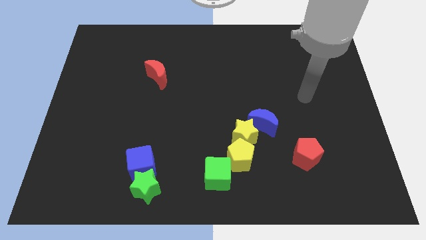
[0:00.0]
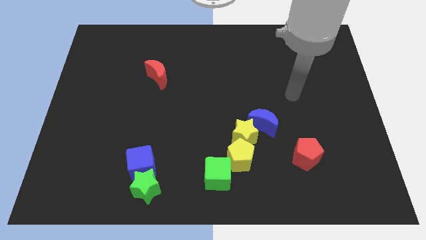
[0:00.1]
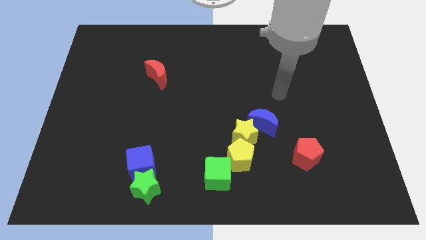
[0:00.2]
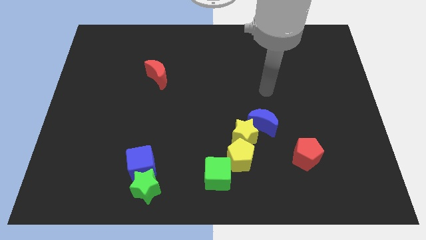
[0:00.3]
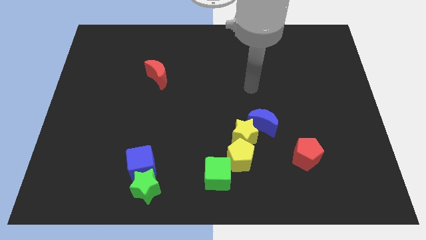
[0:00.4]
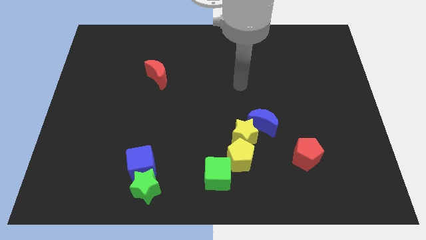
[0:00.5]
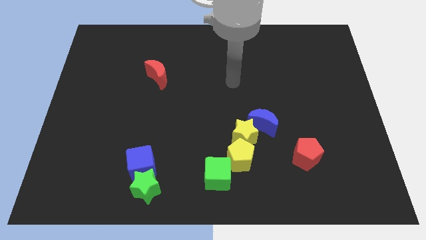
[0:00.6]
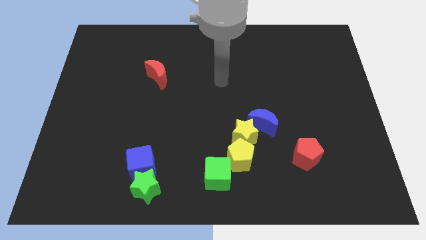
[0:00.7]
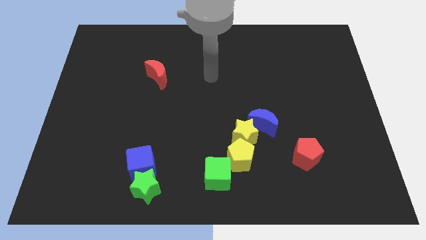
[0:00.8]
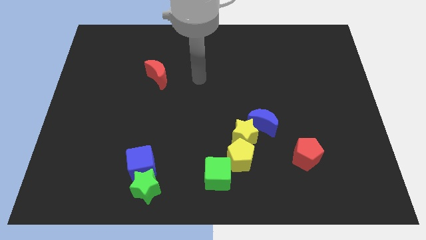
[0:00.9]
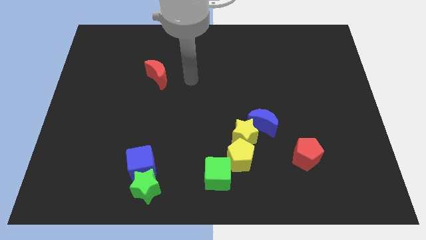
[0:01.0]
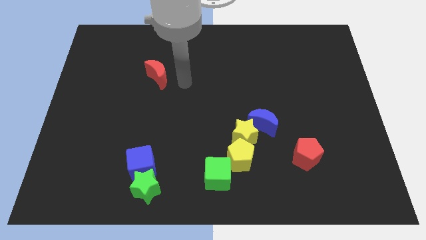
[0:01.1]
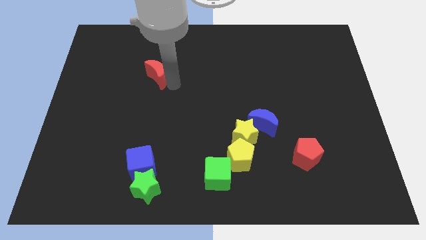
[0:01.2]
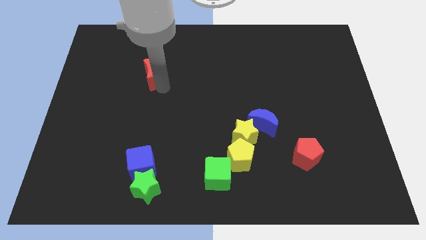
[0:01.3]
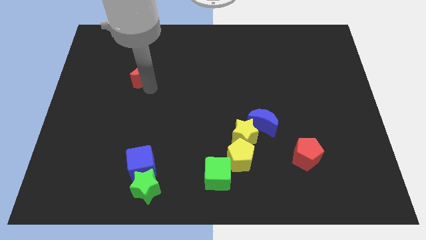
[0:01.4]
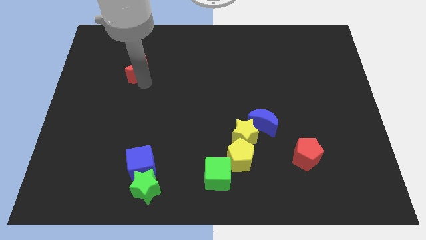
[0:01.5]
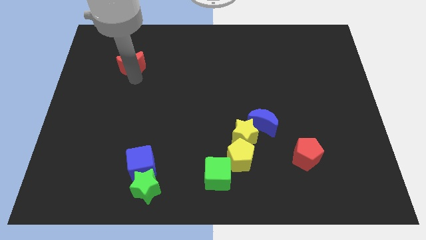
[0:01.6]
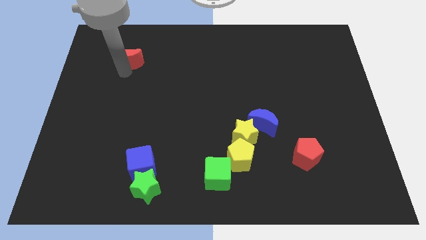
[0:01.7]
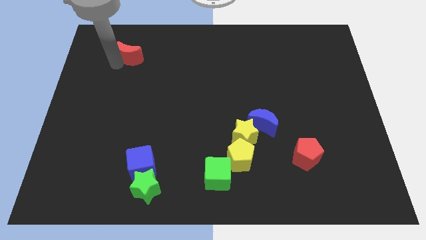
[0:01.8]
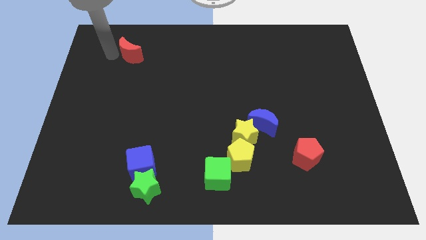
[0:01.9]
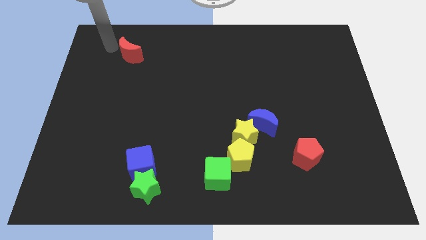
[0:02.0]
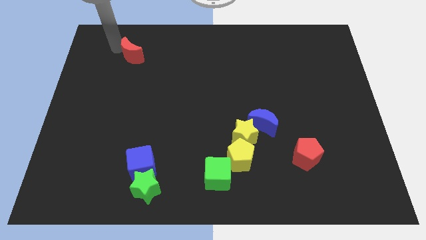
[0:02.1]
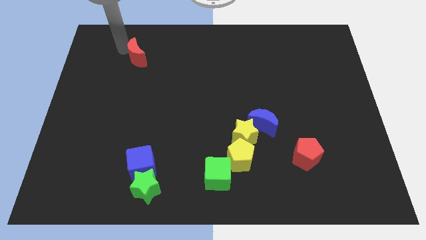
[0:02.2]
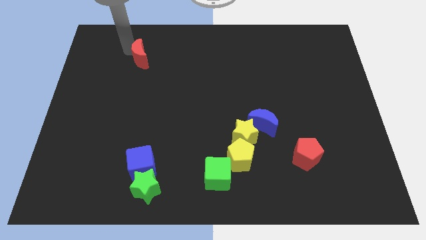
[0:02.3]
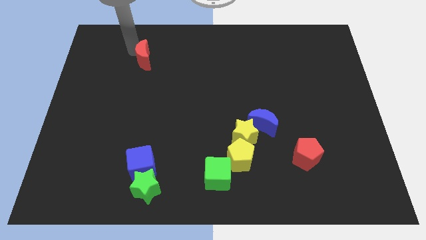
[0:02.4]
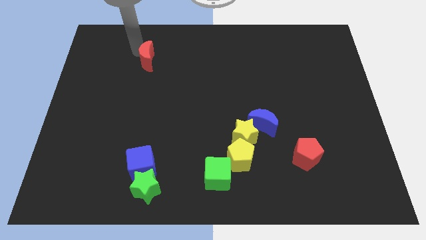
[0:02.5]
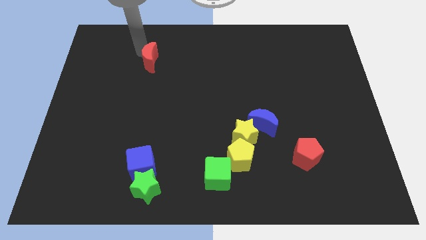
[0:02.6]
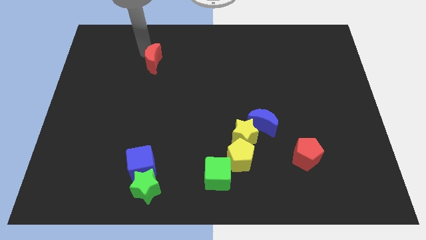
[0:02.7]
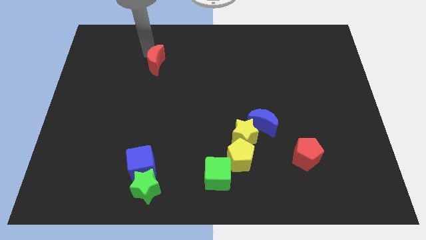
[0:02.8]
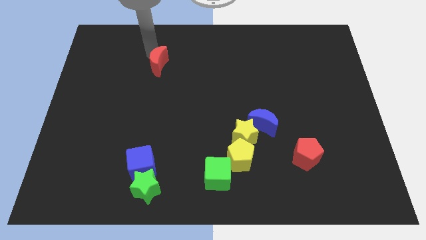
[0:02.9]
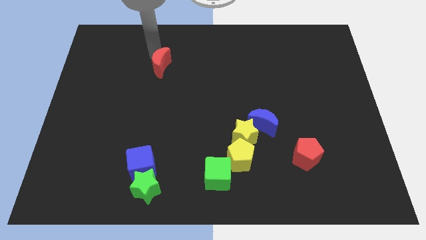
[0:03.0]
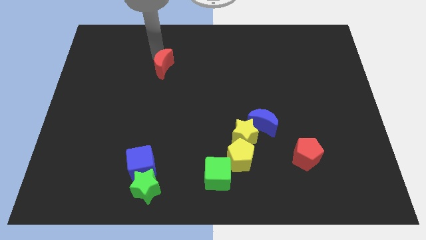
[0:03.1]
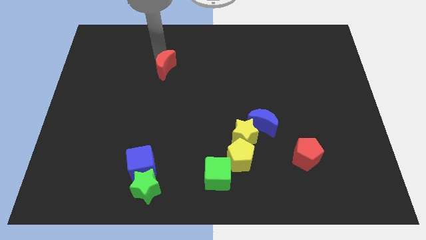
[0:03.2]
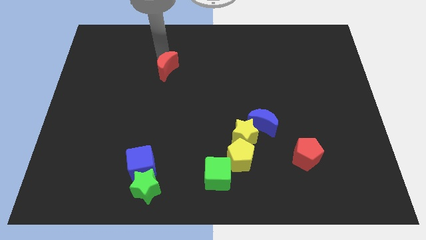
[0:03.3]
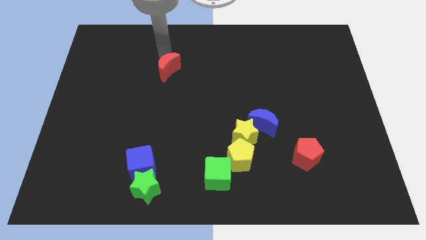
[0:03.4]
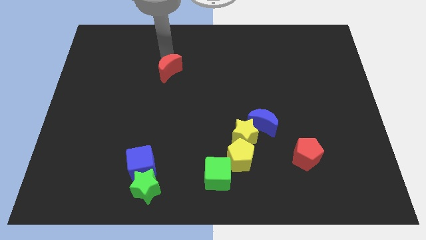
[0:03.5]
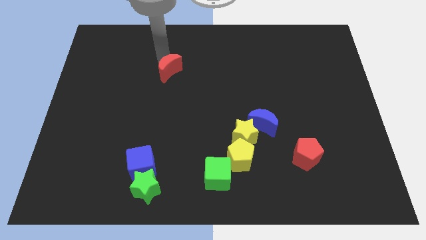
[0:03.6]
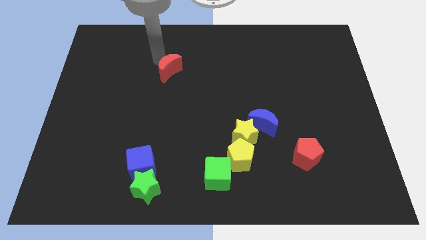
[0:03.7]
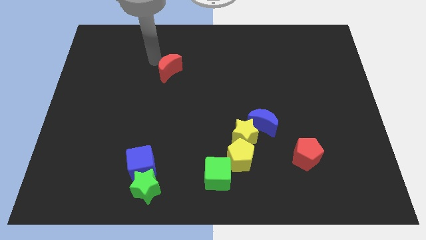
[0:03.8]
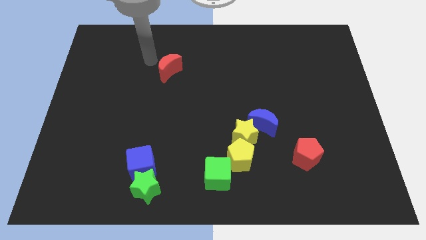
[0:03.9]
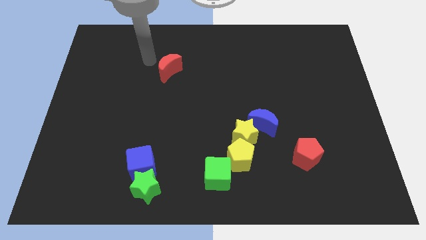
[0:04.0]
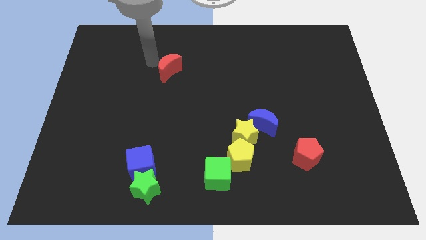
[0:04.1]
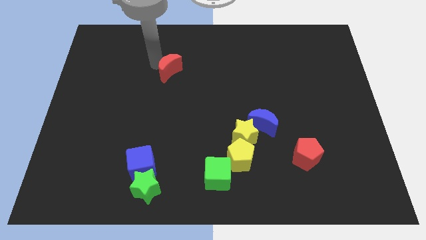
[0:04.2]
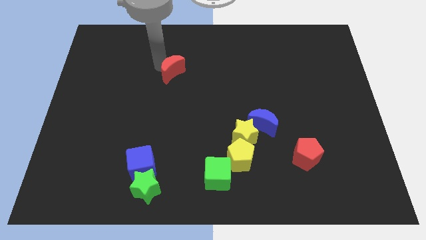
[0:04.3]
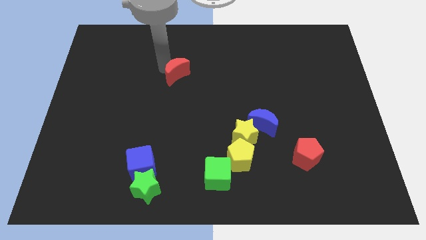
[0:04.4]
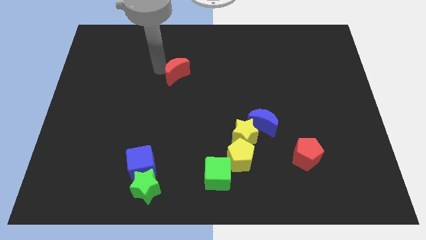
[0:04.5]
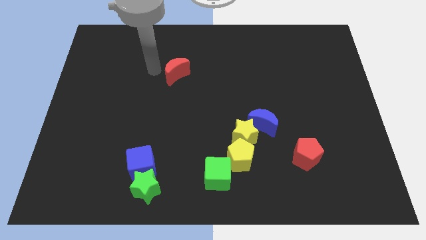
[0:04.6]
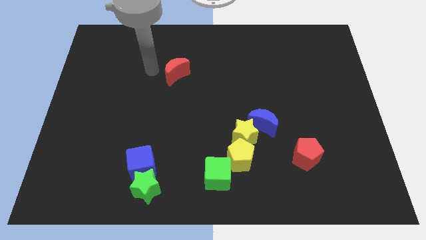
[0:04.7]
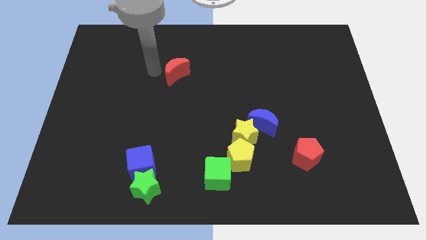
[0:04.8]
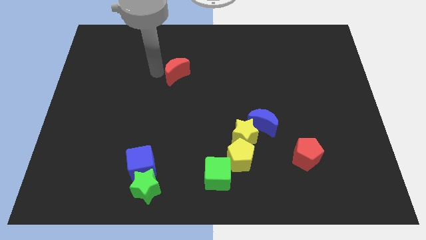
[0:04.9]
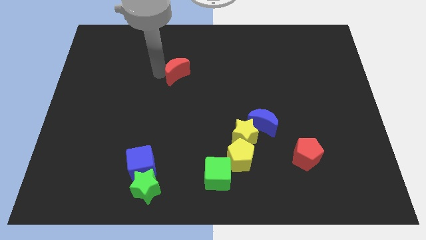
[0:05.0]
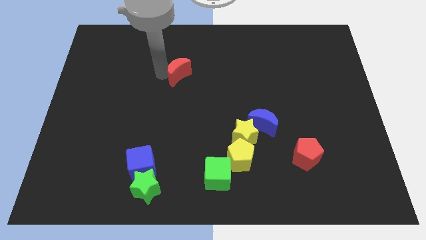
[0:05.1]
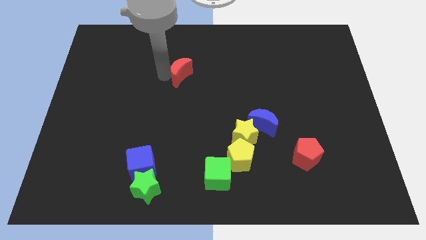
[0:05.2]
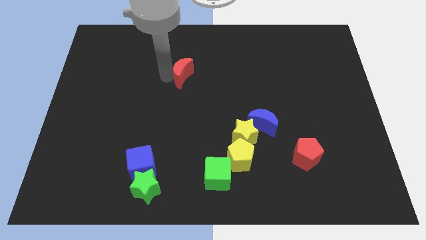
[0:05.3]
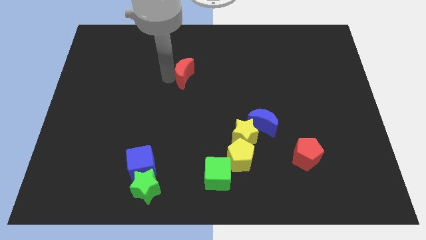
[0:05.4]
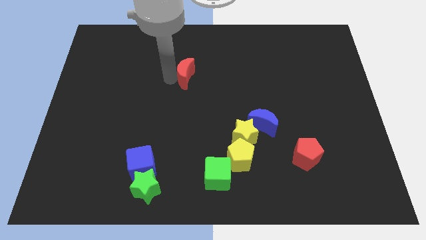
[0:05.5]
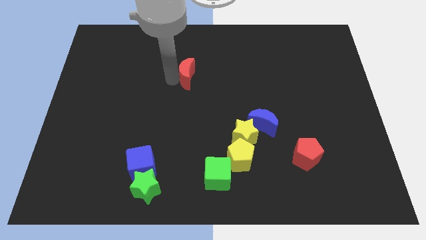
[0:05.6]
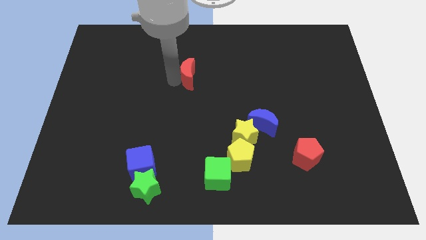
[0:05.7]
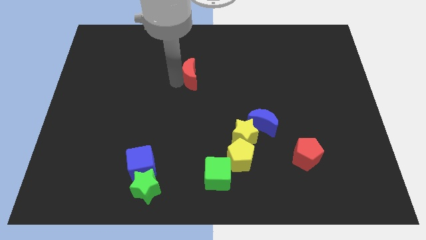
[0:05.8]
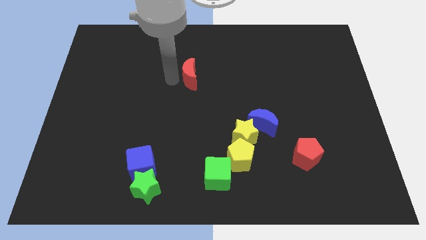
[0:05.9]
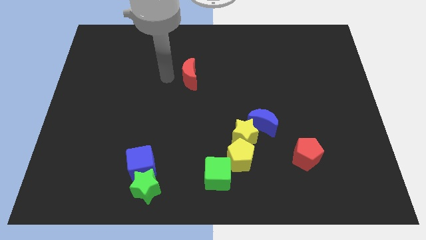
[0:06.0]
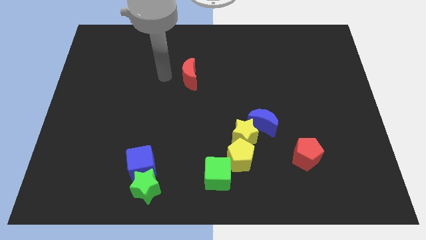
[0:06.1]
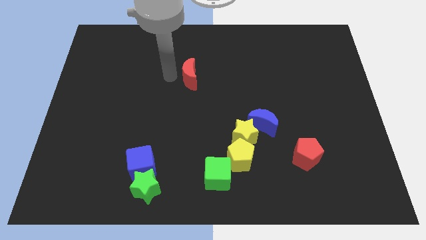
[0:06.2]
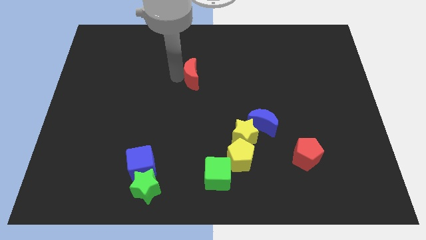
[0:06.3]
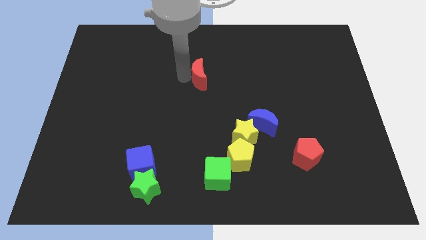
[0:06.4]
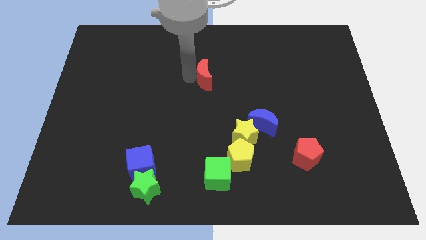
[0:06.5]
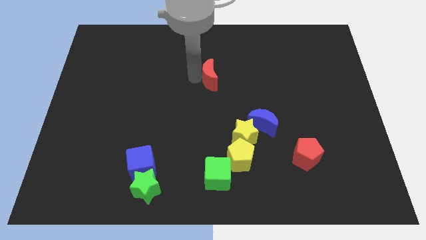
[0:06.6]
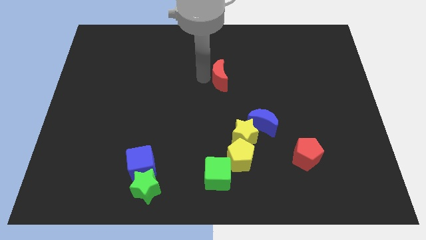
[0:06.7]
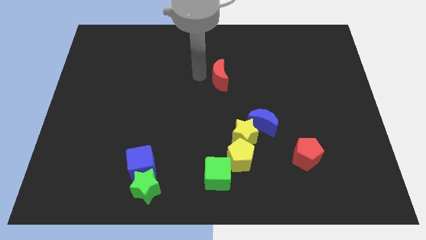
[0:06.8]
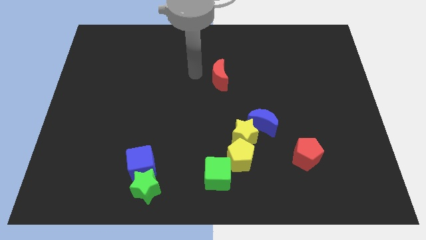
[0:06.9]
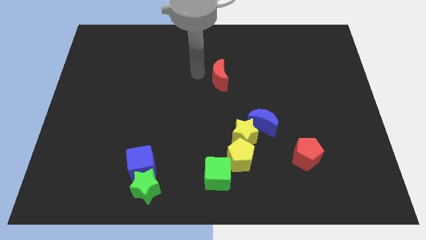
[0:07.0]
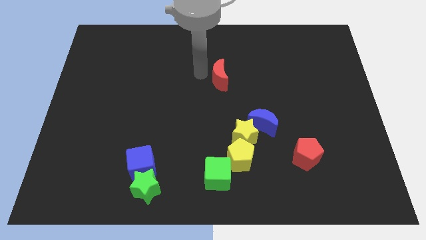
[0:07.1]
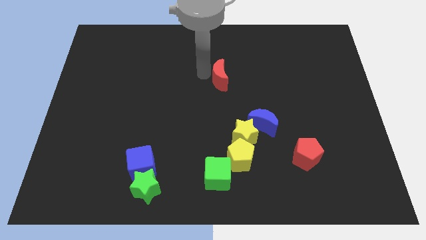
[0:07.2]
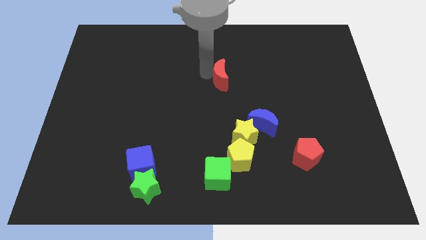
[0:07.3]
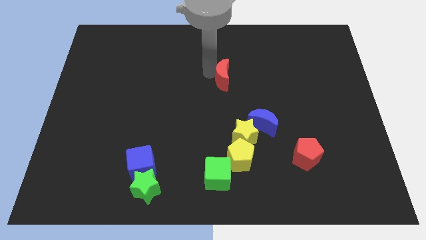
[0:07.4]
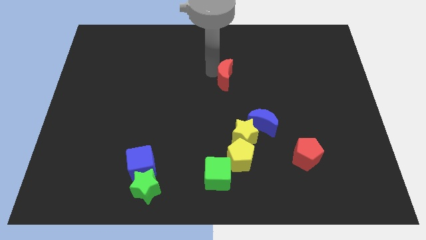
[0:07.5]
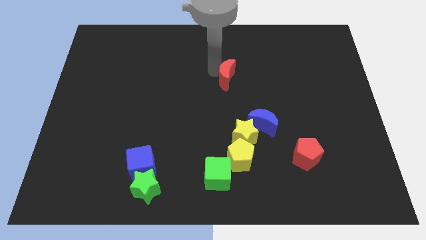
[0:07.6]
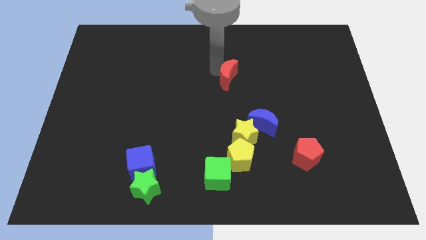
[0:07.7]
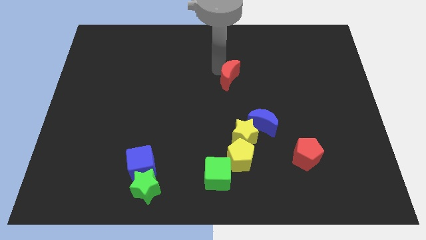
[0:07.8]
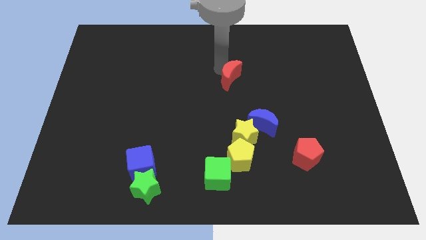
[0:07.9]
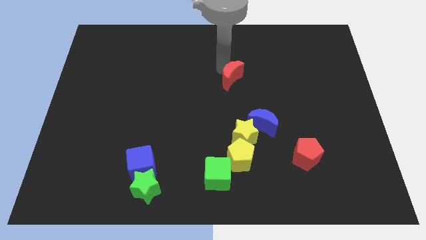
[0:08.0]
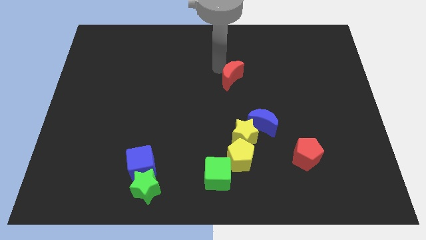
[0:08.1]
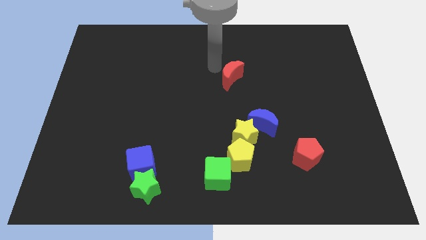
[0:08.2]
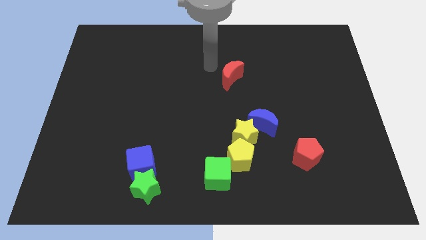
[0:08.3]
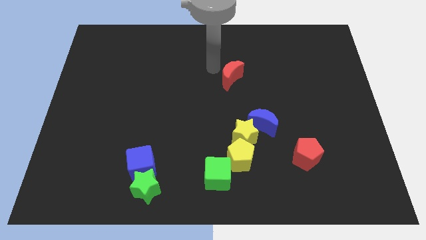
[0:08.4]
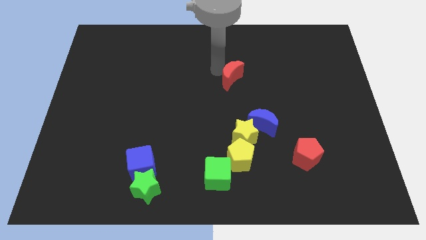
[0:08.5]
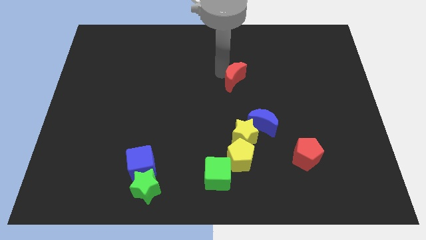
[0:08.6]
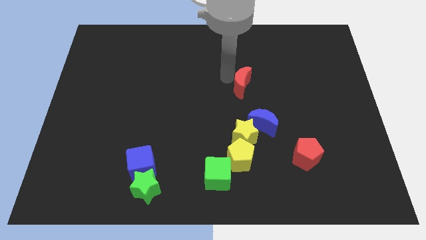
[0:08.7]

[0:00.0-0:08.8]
move the red moon to the right
